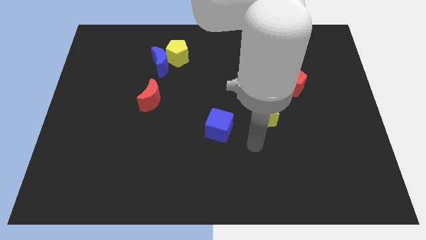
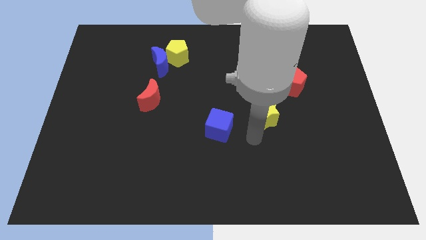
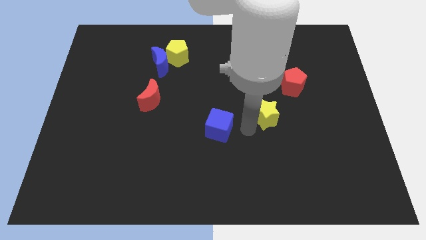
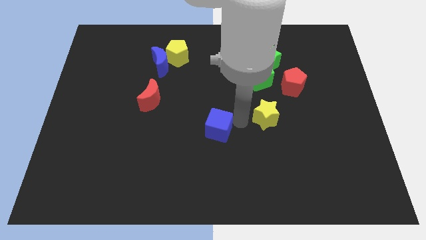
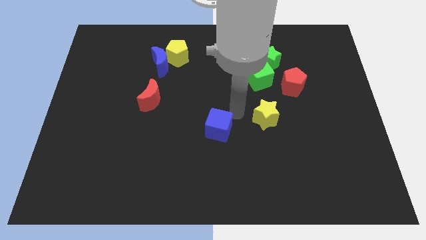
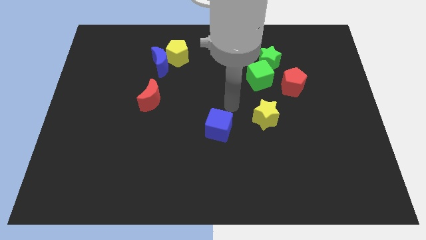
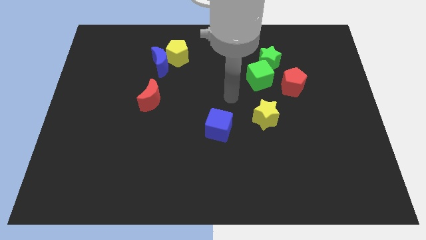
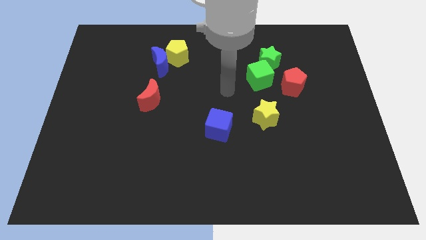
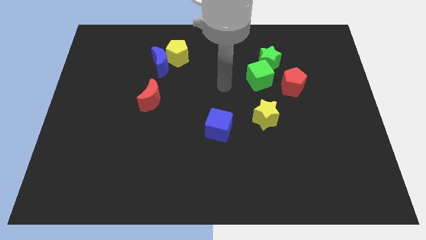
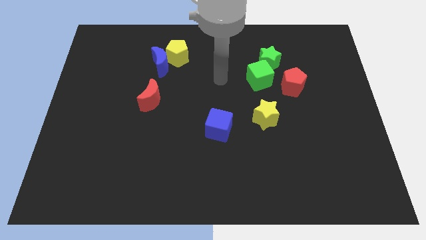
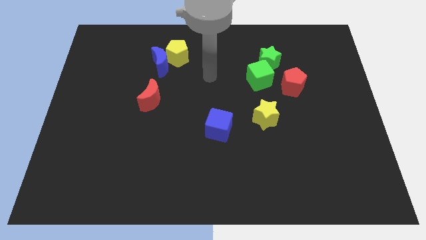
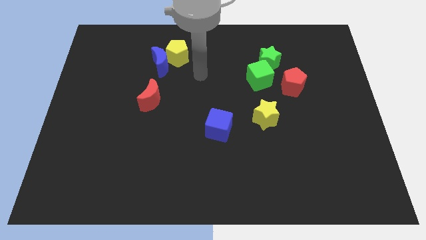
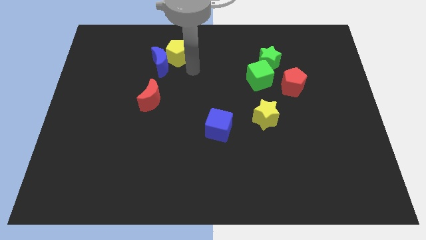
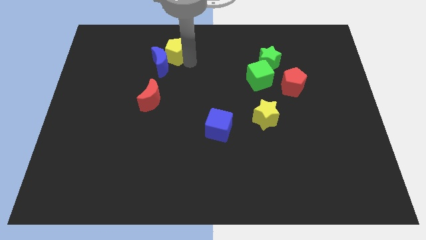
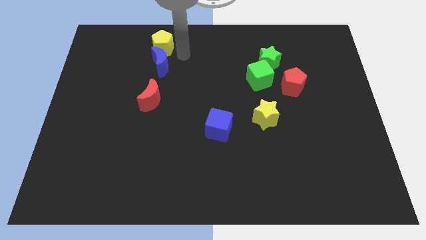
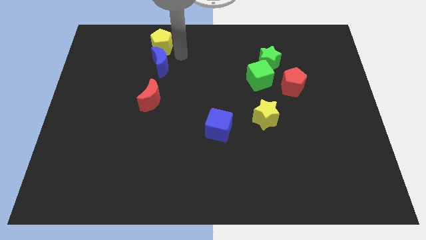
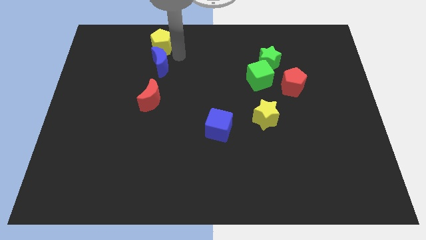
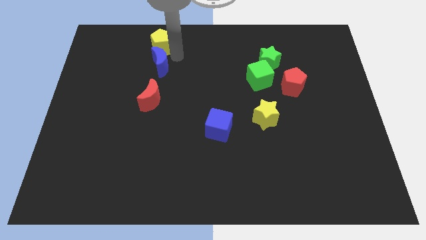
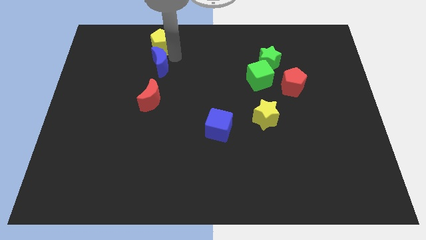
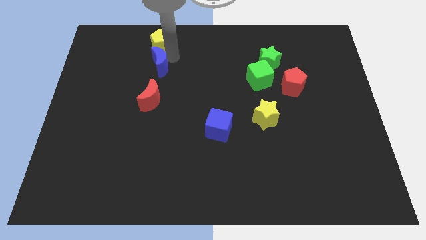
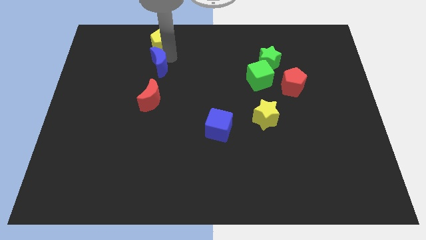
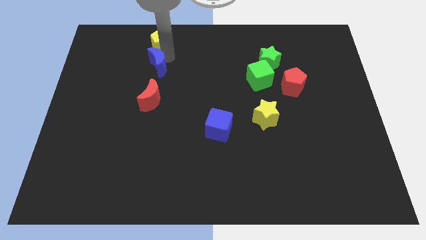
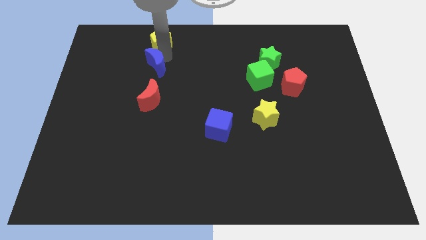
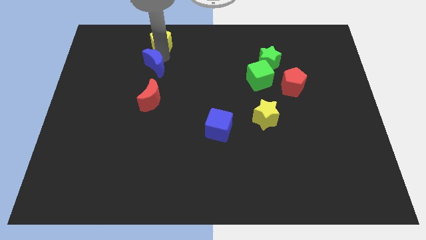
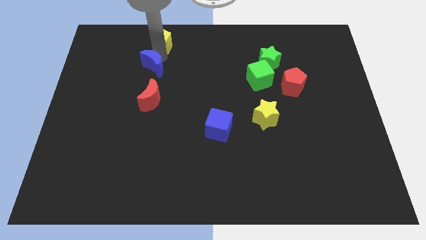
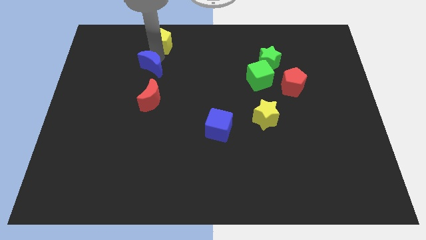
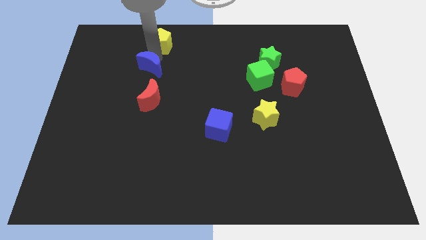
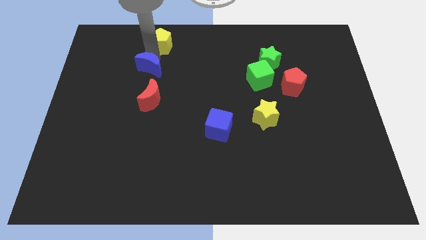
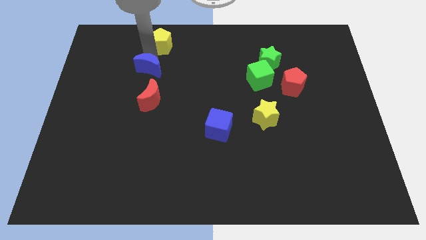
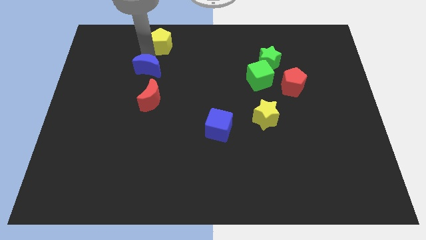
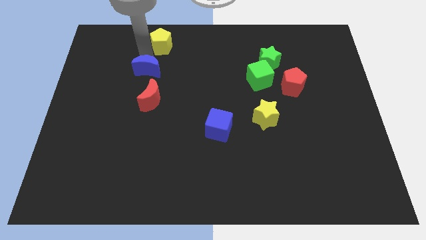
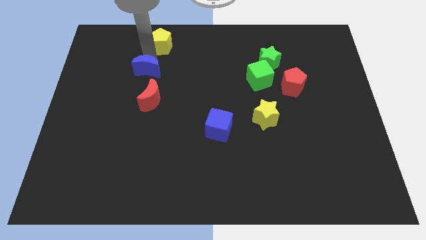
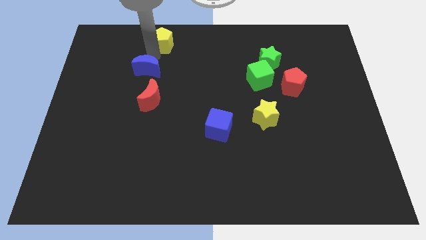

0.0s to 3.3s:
separate the blue moon from the yellow pentagon

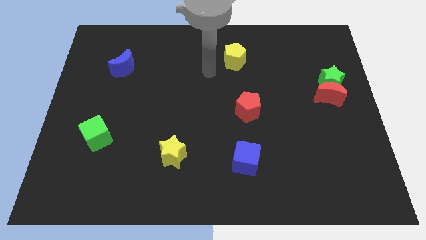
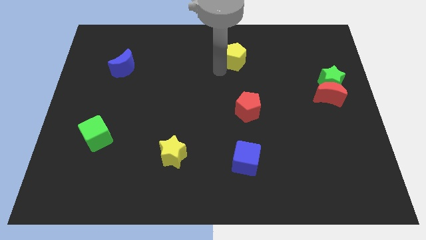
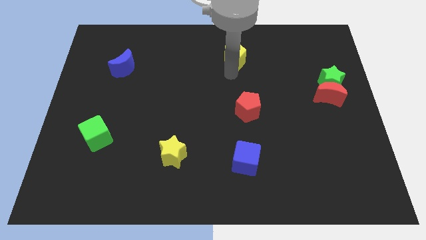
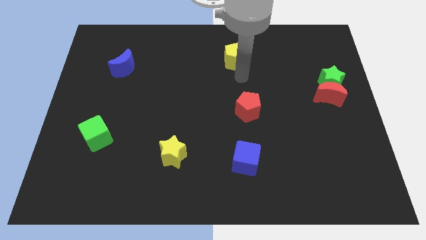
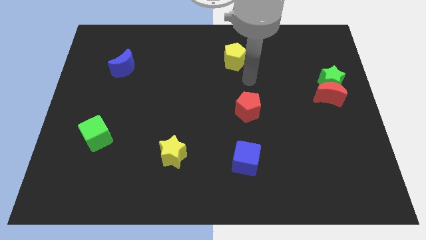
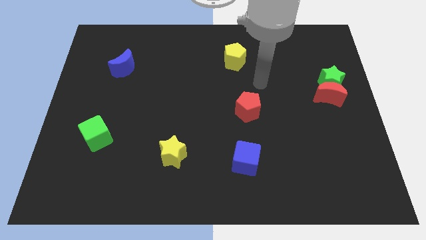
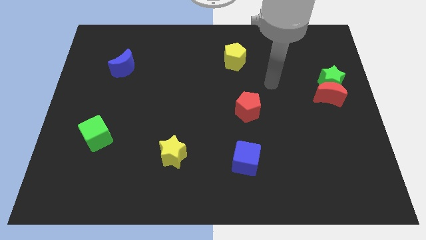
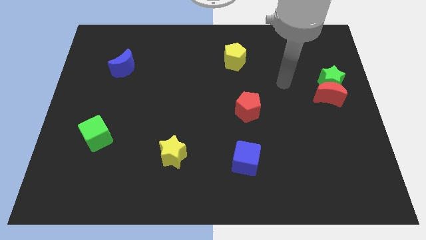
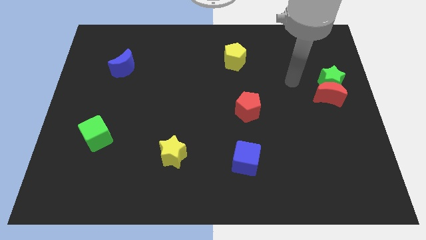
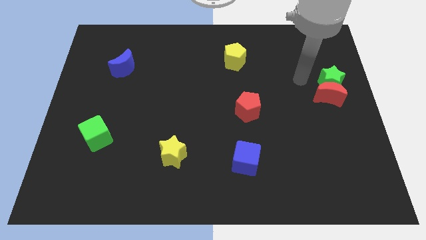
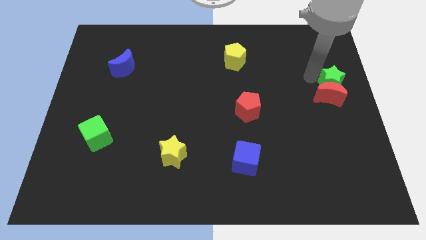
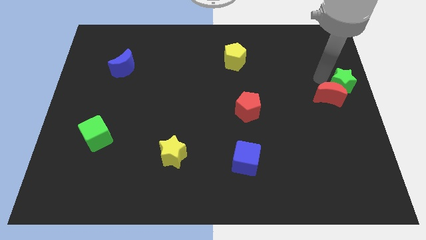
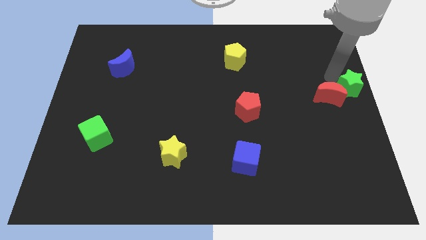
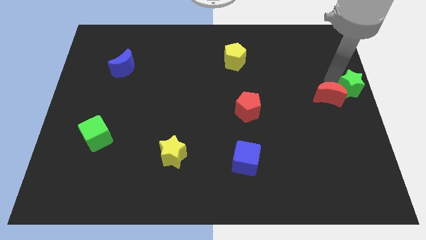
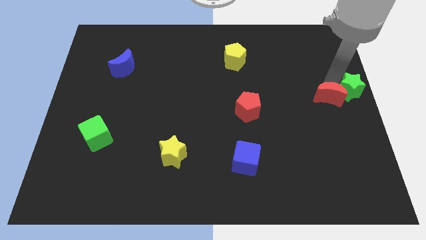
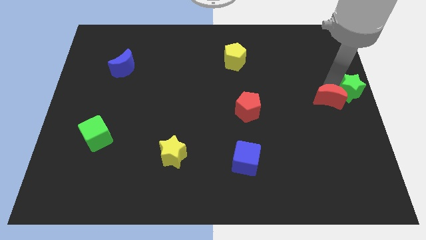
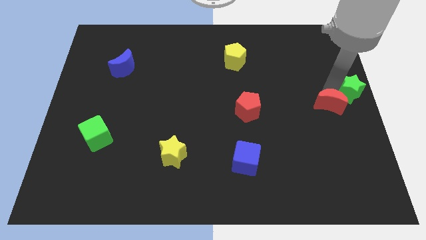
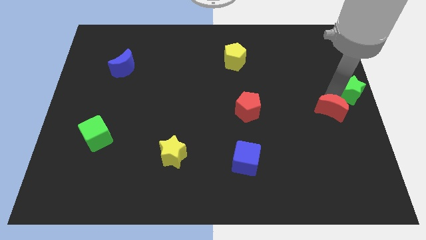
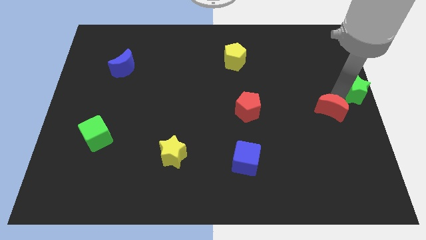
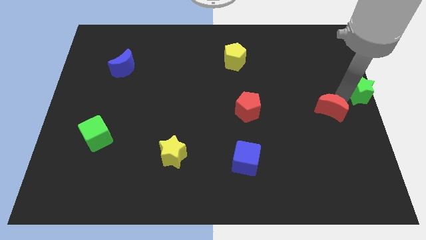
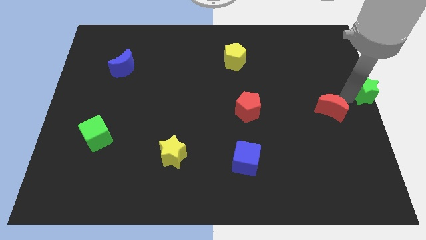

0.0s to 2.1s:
pull the red moon apart from the green star

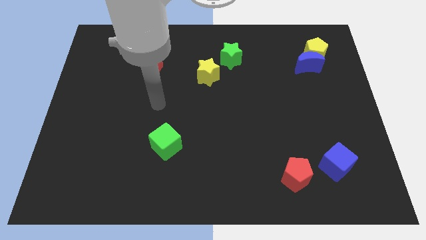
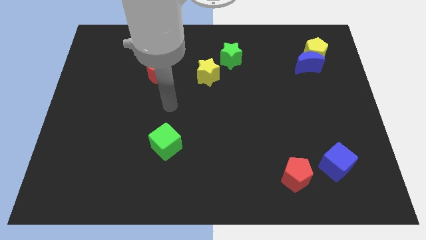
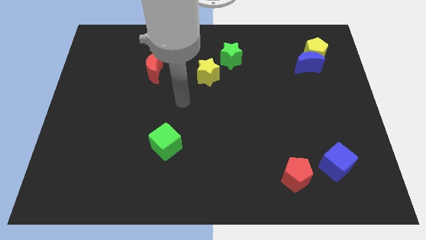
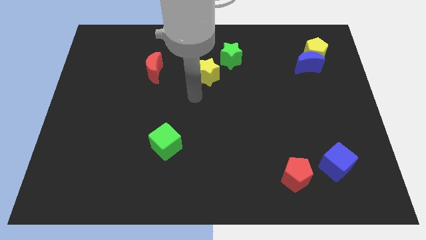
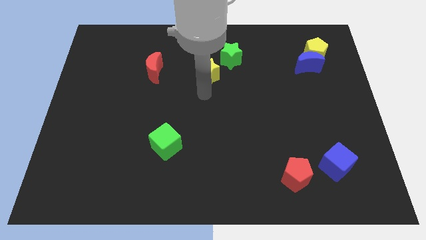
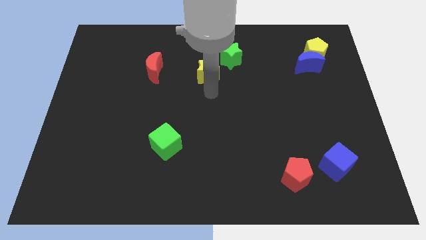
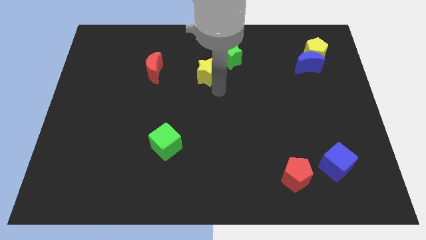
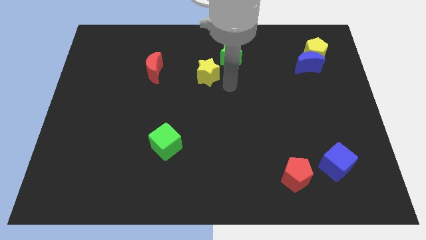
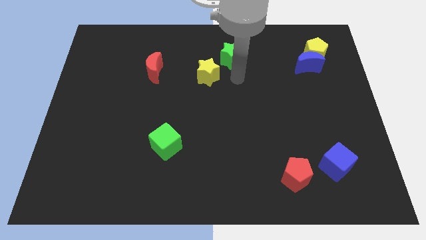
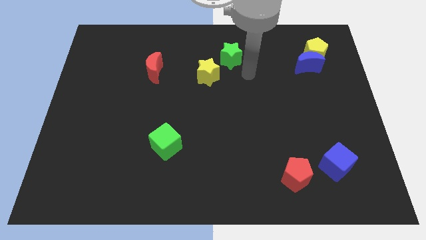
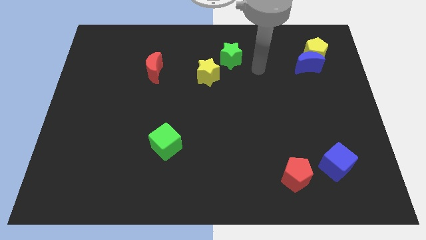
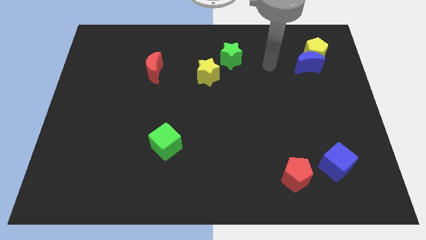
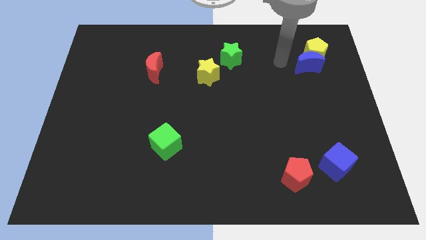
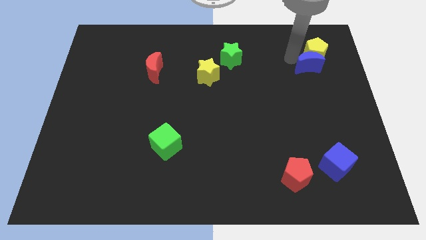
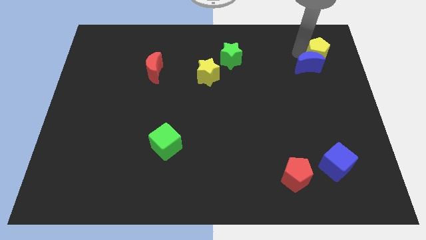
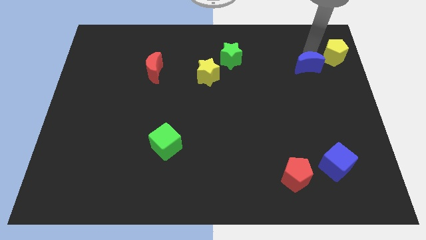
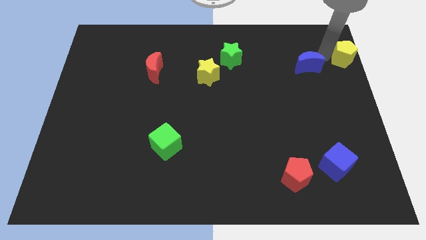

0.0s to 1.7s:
pull the blue moon apart from the yellow pentagon

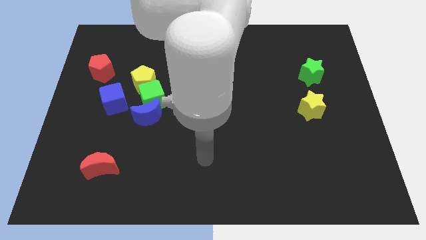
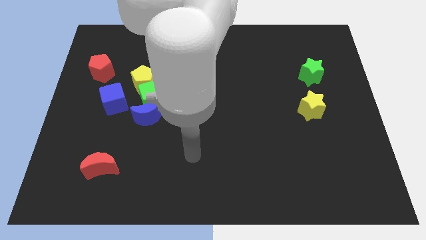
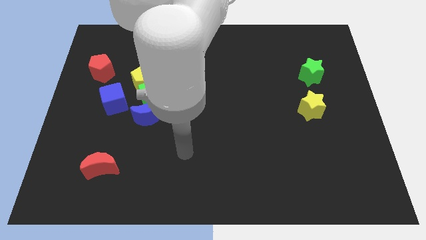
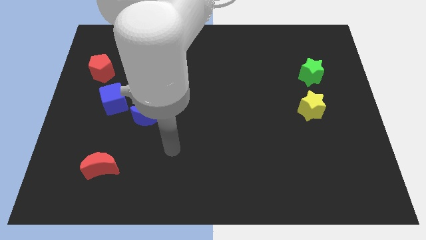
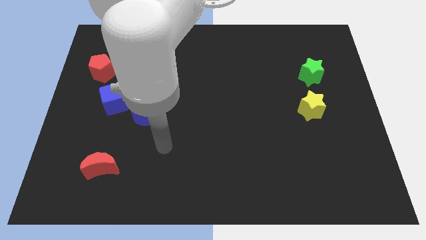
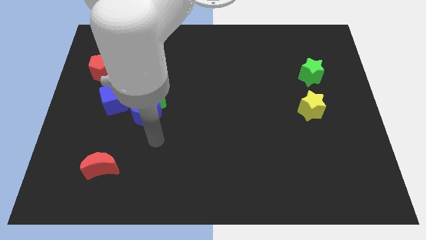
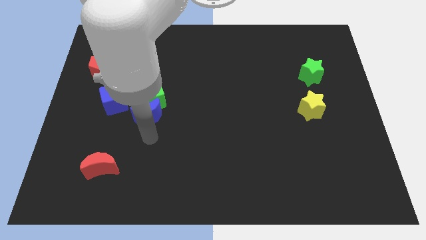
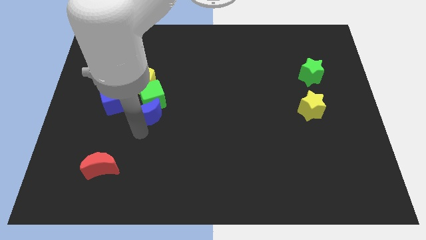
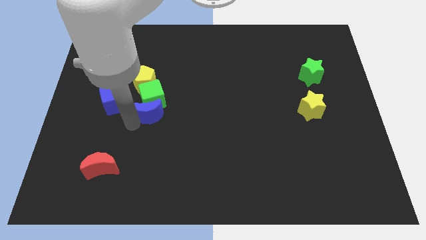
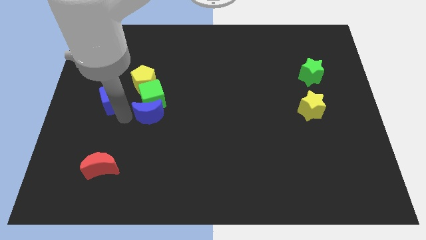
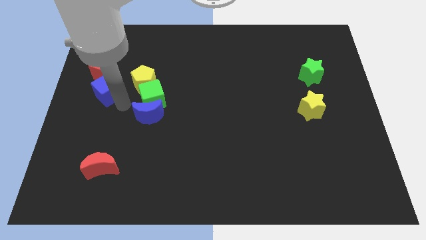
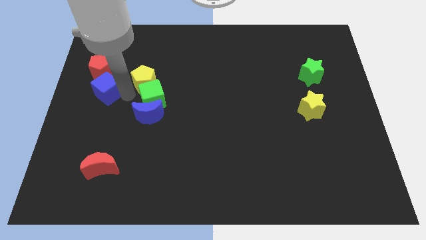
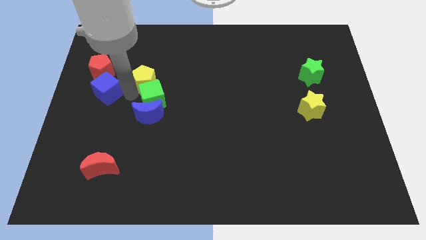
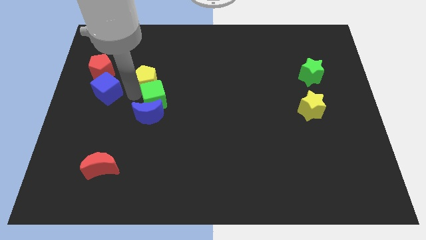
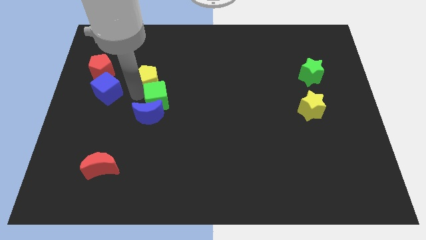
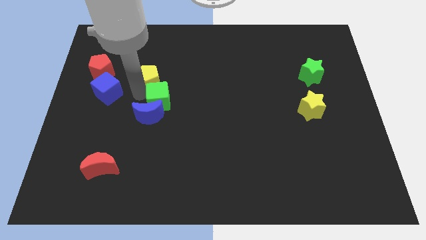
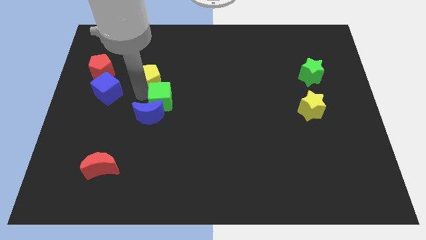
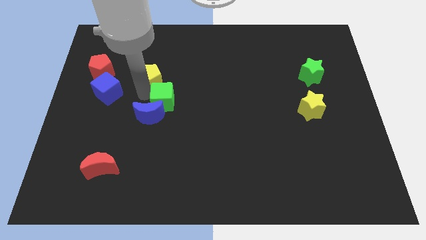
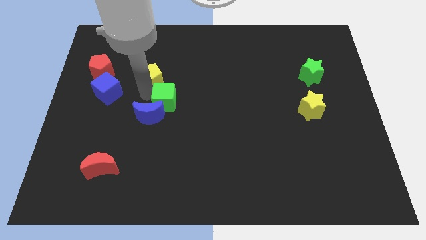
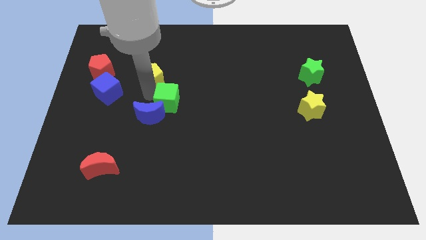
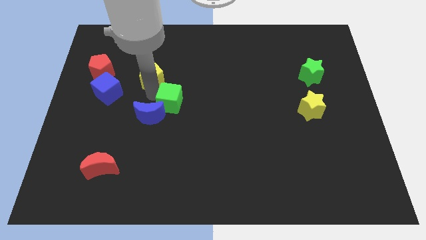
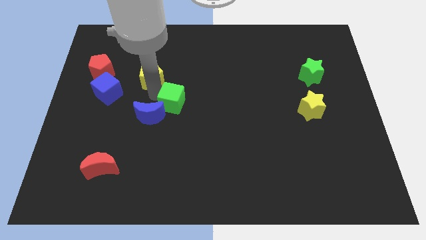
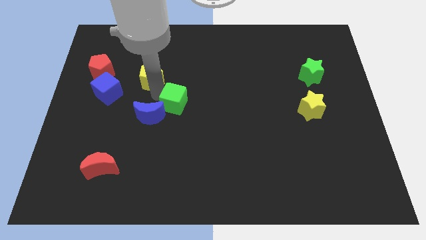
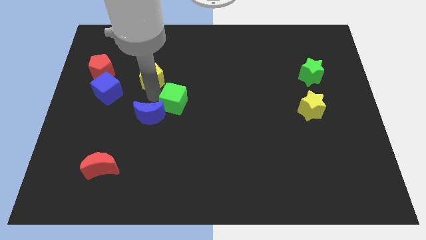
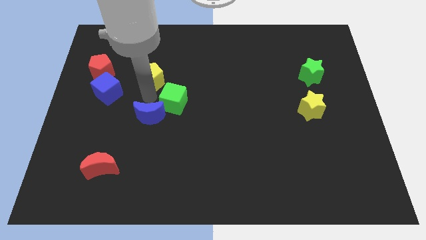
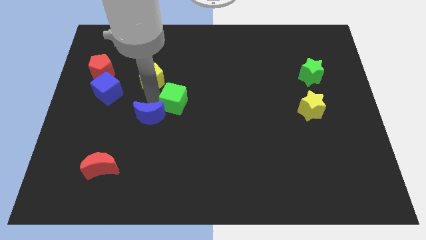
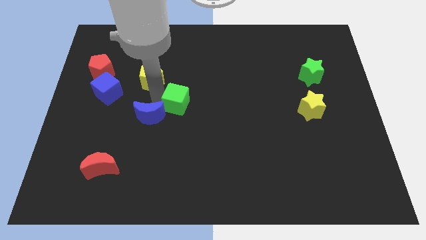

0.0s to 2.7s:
separate the green cube from the group of blocks
